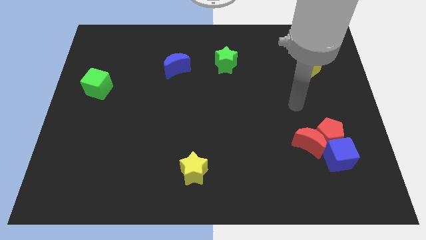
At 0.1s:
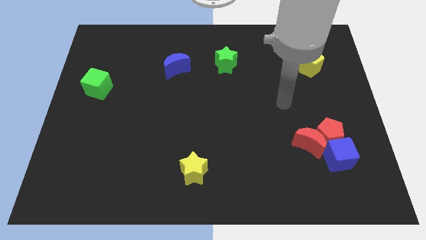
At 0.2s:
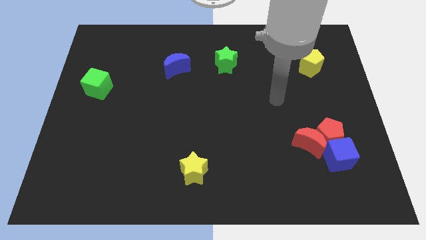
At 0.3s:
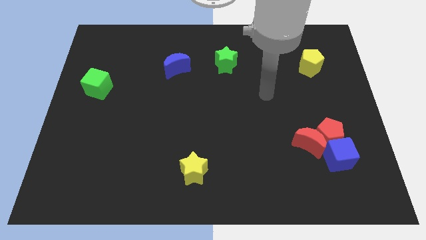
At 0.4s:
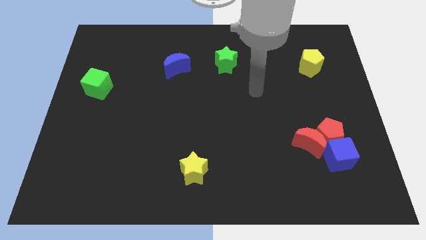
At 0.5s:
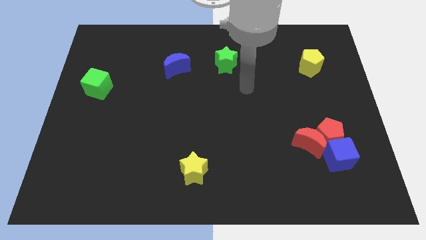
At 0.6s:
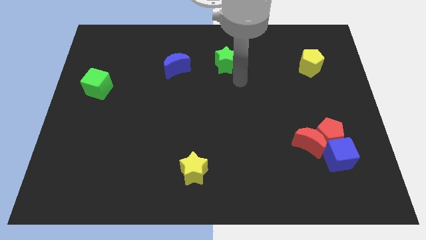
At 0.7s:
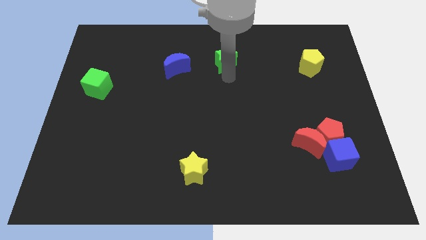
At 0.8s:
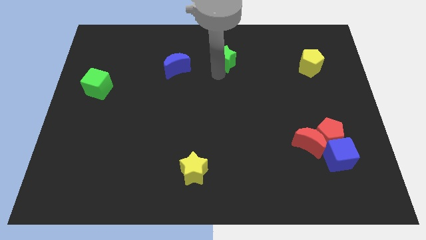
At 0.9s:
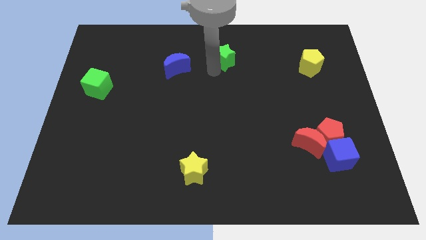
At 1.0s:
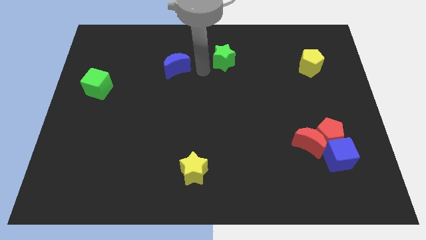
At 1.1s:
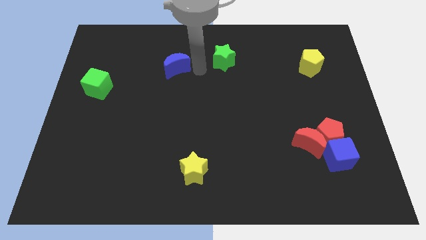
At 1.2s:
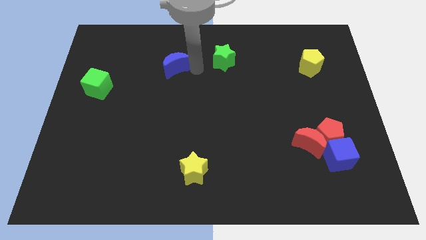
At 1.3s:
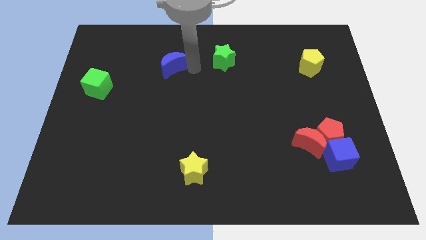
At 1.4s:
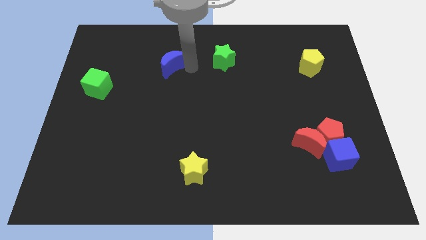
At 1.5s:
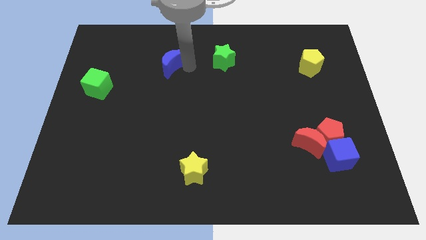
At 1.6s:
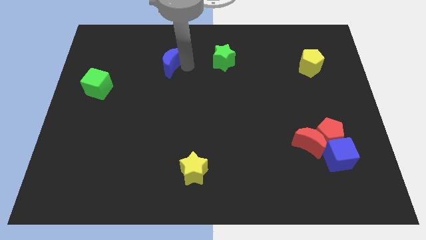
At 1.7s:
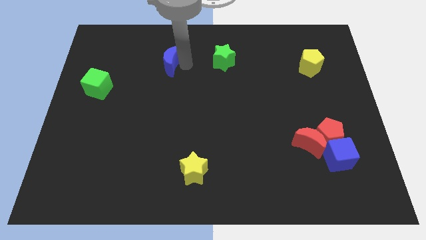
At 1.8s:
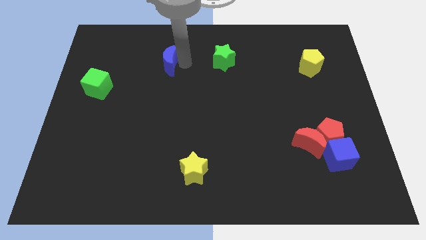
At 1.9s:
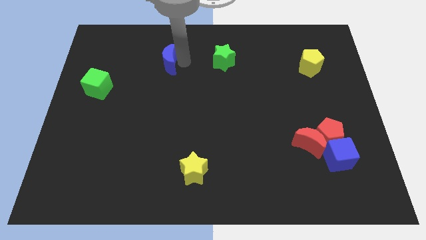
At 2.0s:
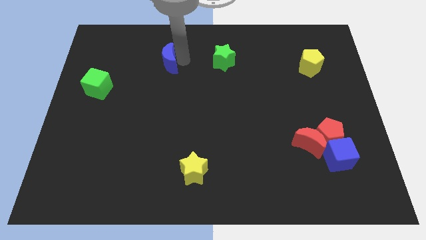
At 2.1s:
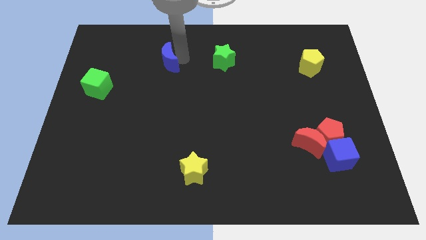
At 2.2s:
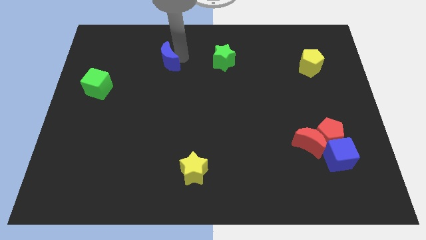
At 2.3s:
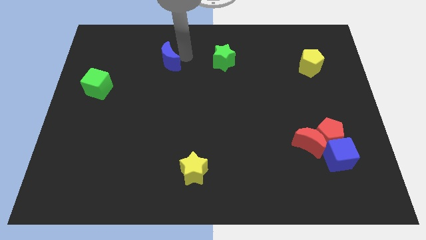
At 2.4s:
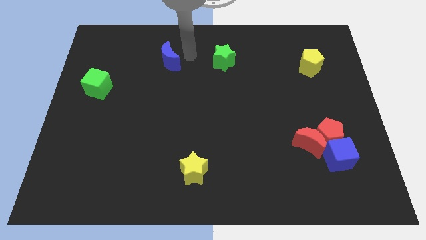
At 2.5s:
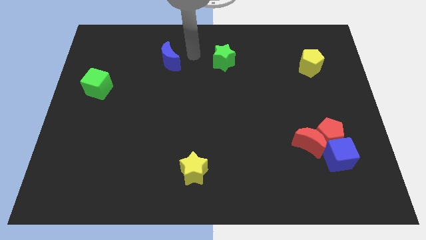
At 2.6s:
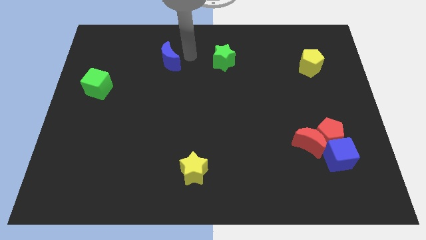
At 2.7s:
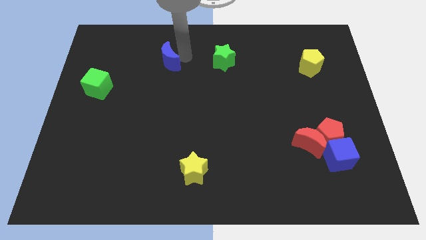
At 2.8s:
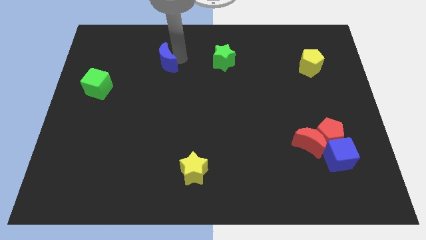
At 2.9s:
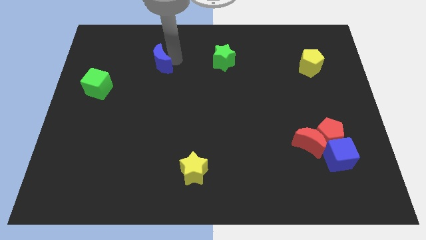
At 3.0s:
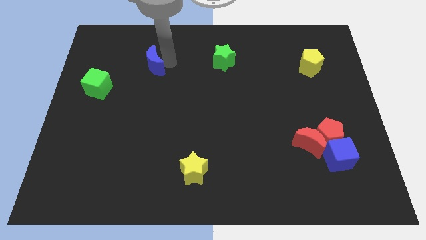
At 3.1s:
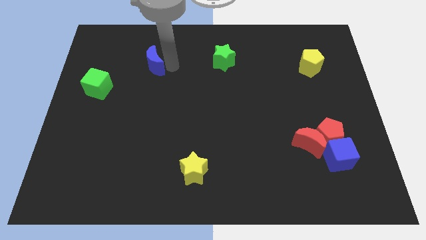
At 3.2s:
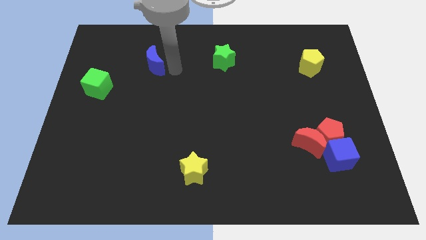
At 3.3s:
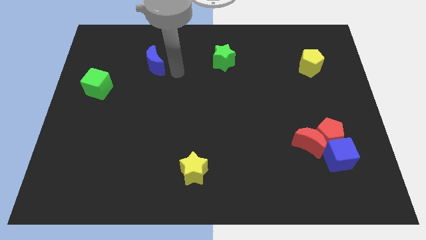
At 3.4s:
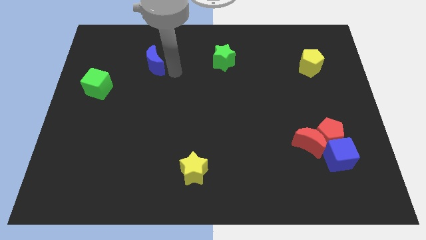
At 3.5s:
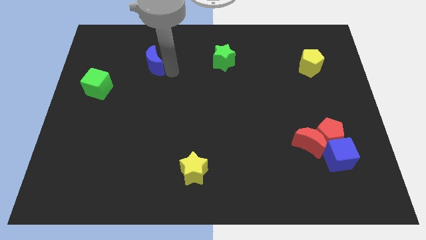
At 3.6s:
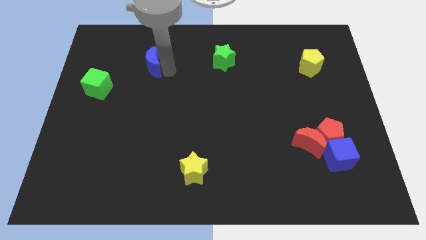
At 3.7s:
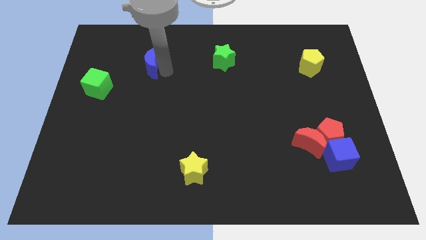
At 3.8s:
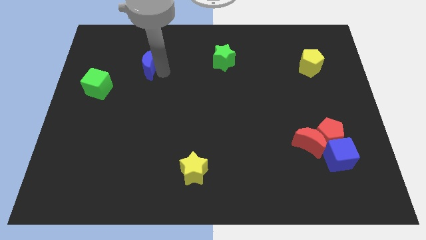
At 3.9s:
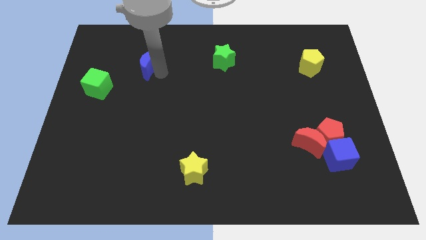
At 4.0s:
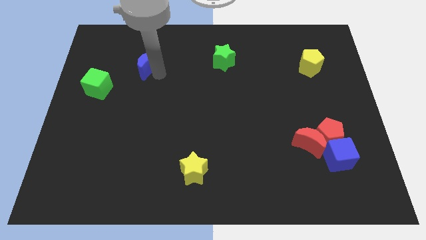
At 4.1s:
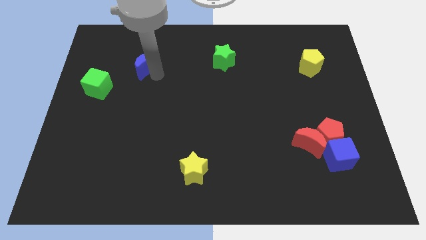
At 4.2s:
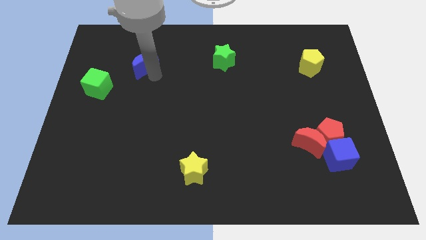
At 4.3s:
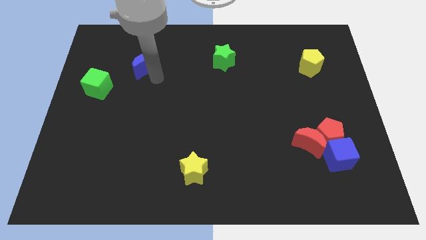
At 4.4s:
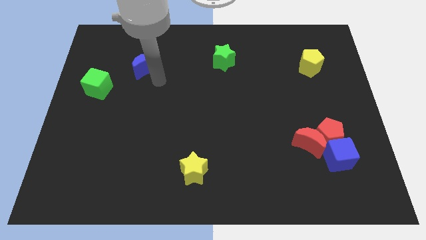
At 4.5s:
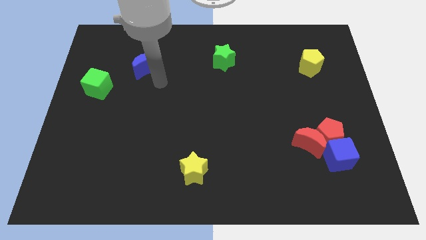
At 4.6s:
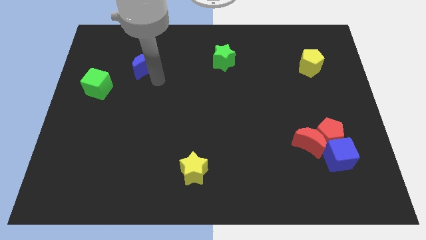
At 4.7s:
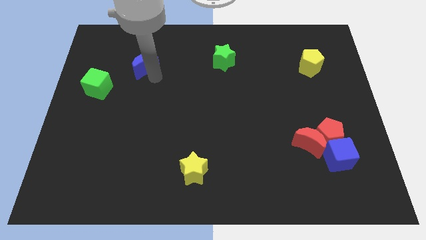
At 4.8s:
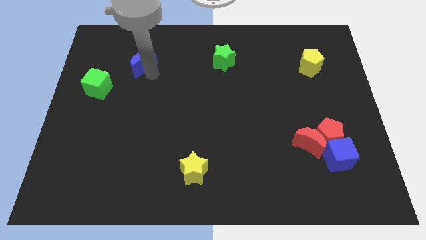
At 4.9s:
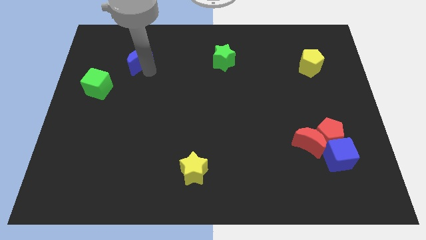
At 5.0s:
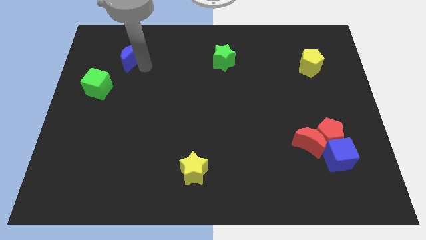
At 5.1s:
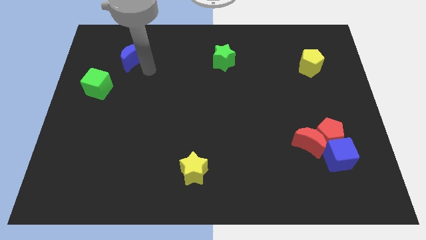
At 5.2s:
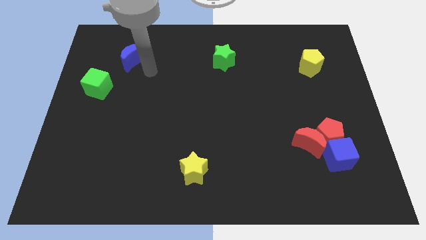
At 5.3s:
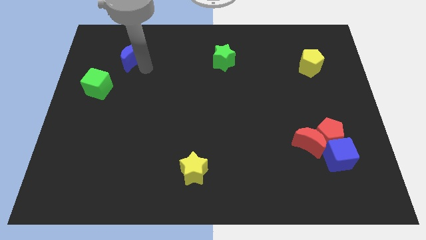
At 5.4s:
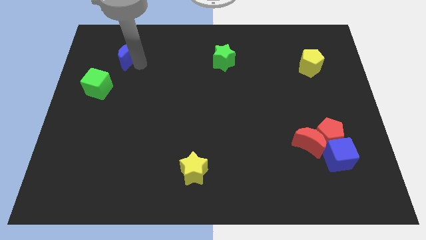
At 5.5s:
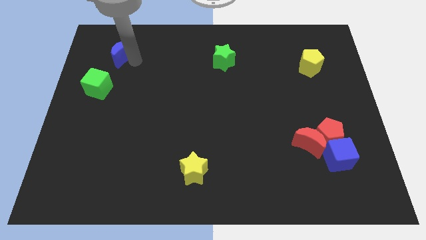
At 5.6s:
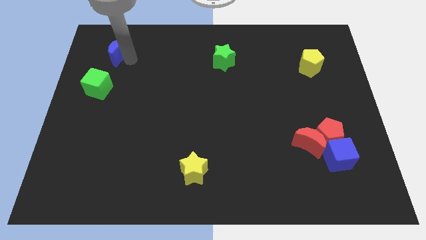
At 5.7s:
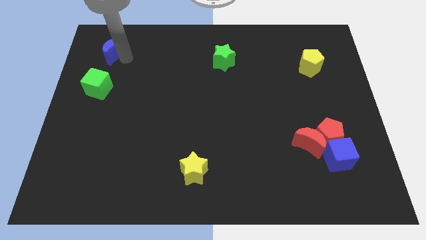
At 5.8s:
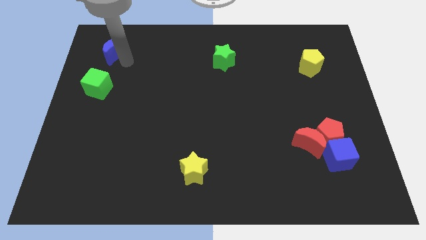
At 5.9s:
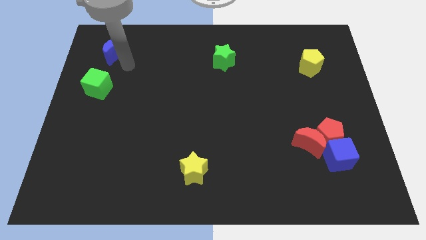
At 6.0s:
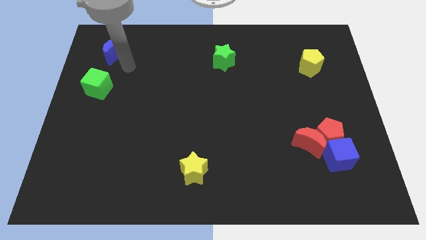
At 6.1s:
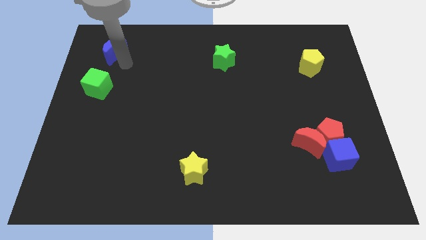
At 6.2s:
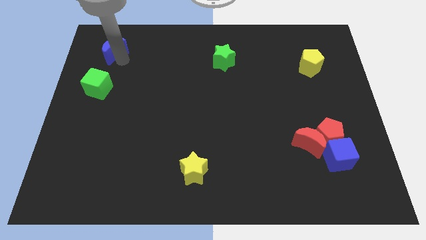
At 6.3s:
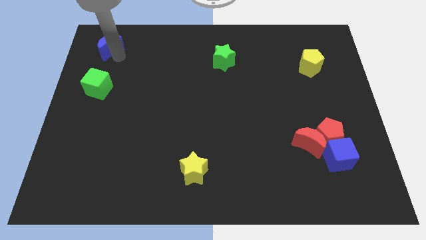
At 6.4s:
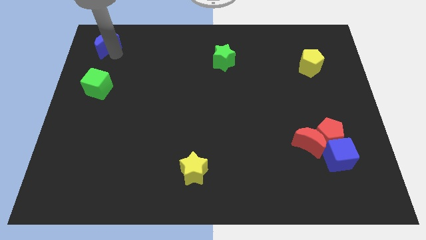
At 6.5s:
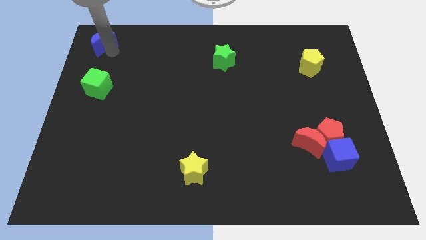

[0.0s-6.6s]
put the blue moon to the upper left corner
